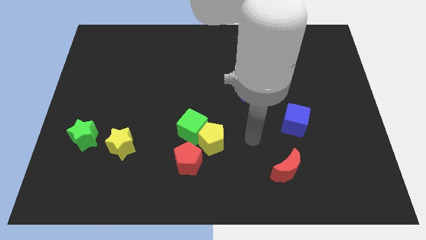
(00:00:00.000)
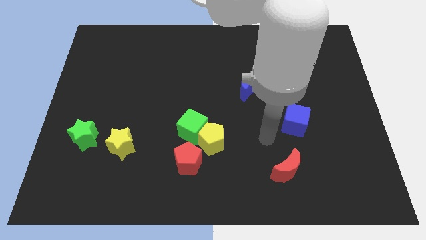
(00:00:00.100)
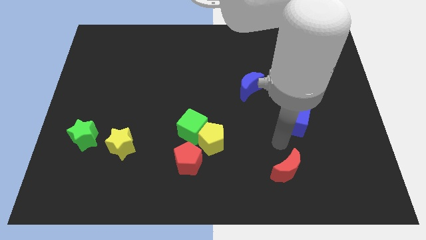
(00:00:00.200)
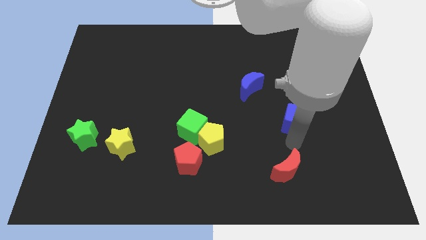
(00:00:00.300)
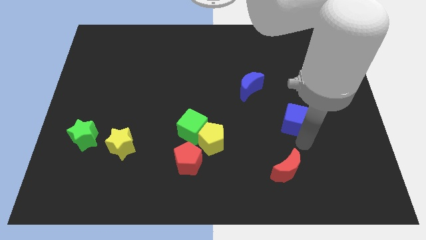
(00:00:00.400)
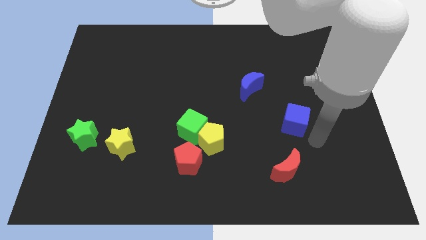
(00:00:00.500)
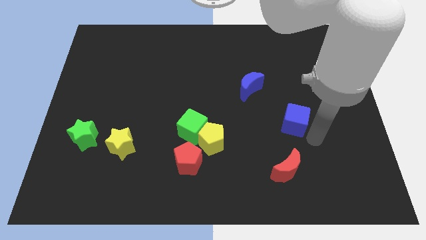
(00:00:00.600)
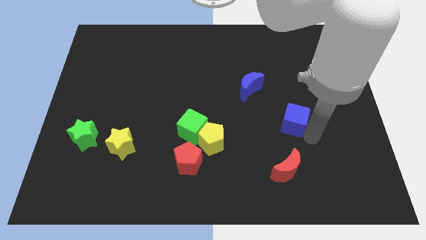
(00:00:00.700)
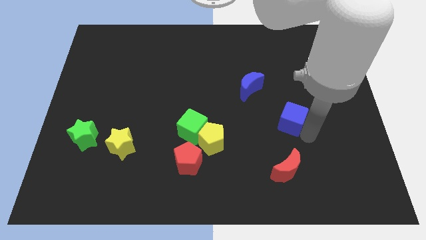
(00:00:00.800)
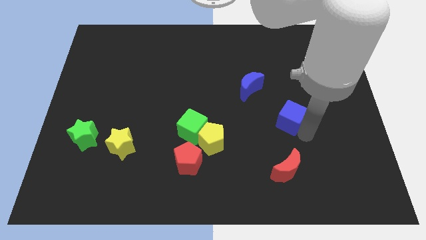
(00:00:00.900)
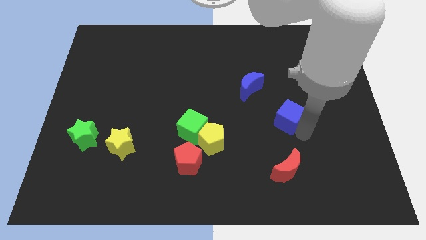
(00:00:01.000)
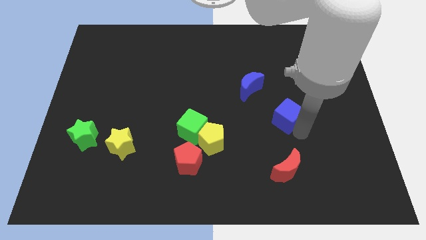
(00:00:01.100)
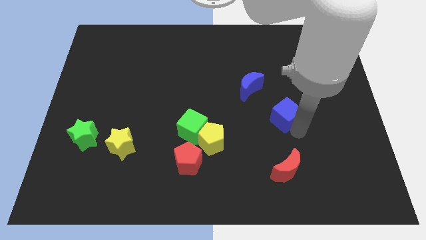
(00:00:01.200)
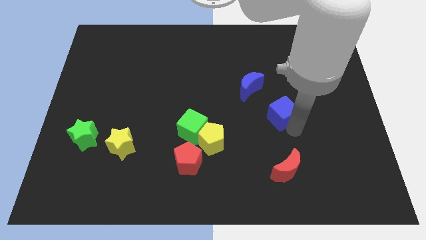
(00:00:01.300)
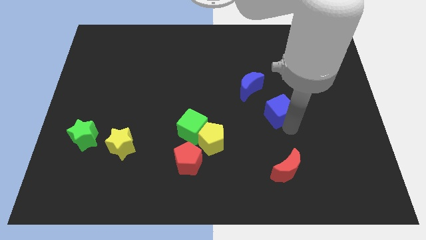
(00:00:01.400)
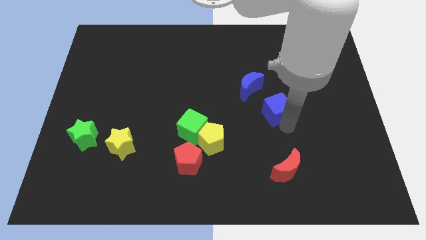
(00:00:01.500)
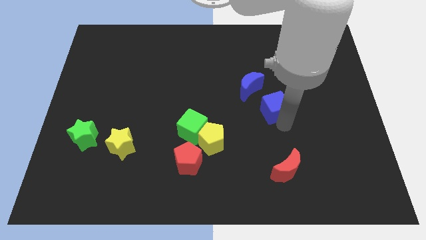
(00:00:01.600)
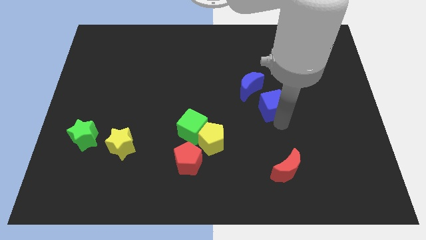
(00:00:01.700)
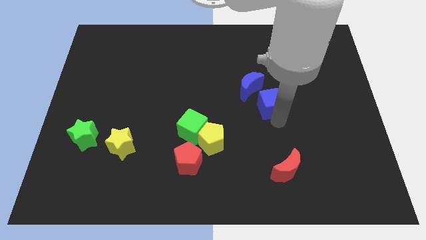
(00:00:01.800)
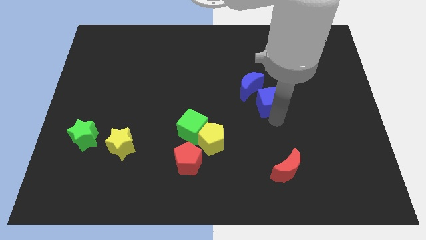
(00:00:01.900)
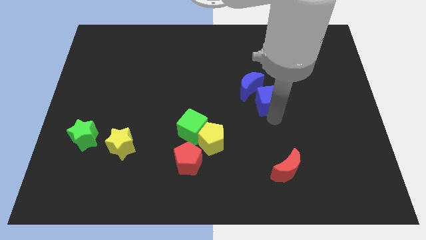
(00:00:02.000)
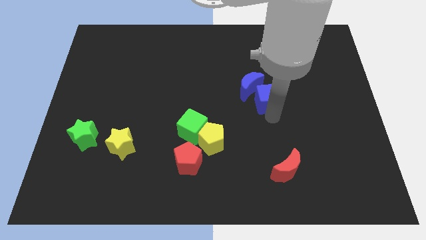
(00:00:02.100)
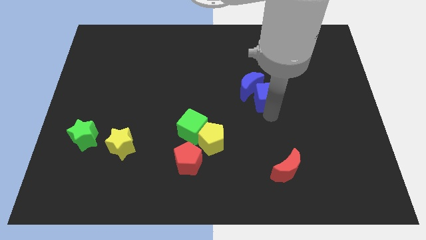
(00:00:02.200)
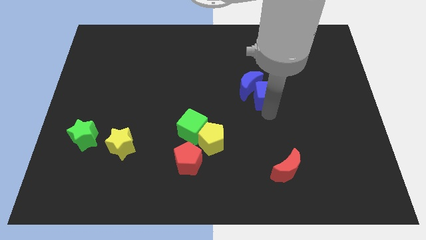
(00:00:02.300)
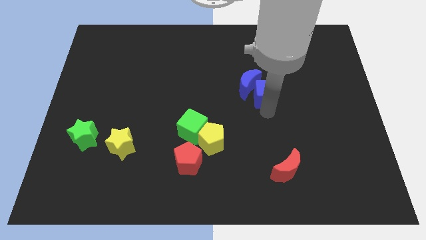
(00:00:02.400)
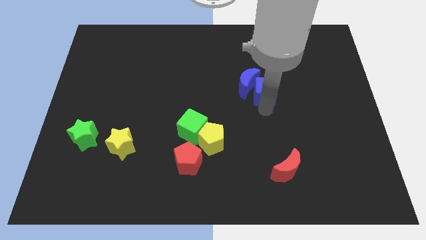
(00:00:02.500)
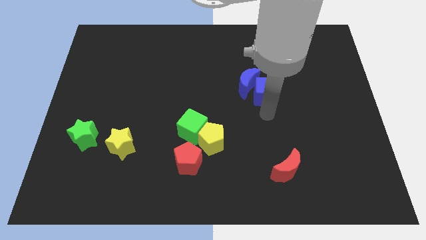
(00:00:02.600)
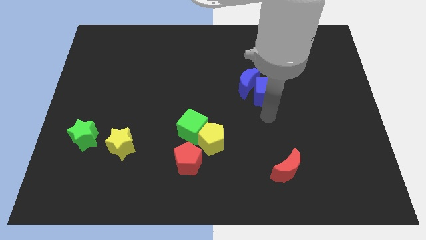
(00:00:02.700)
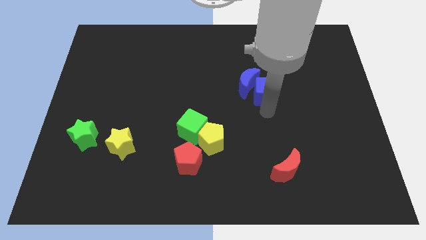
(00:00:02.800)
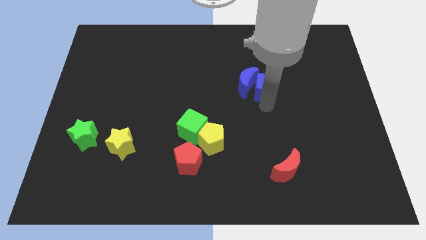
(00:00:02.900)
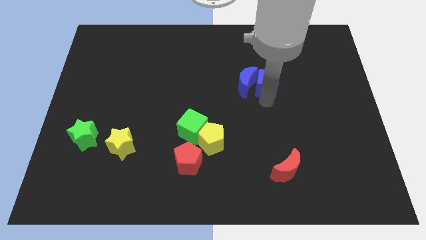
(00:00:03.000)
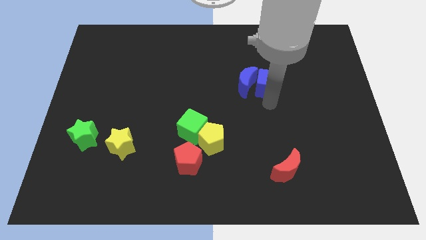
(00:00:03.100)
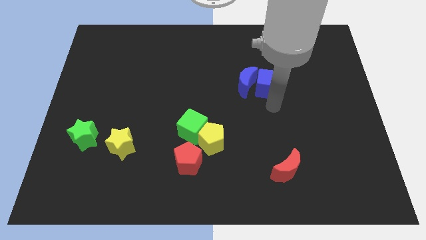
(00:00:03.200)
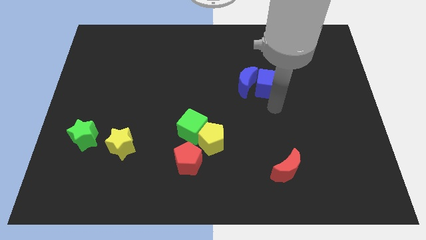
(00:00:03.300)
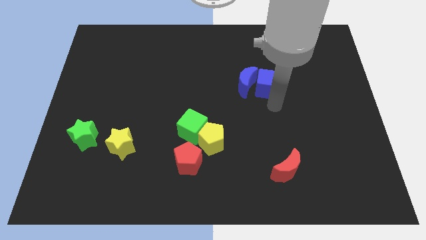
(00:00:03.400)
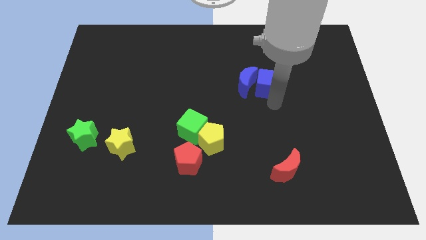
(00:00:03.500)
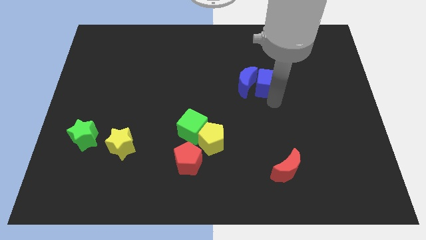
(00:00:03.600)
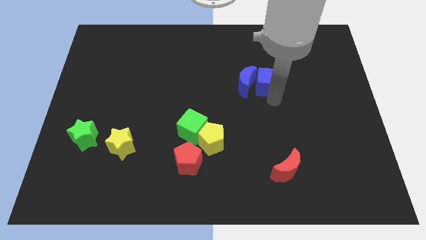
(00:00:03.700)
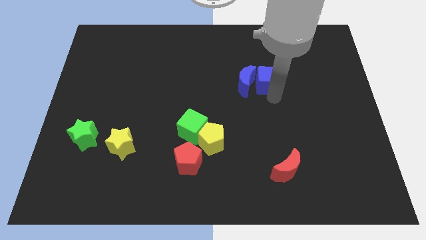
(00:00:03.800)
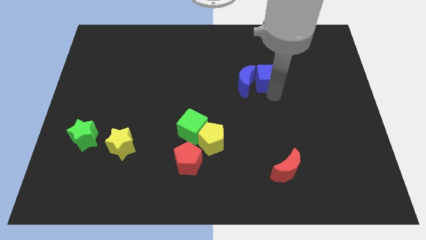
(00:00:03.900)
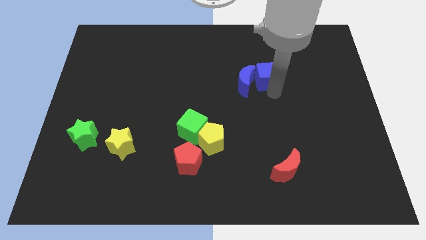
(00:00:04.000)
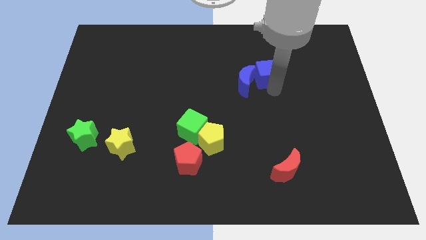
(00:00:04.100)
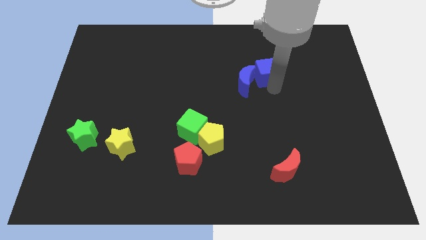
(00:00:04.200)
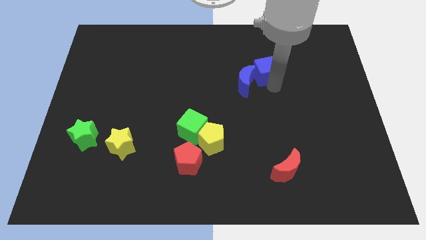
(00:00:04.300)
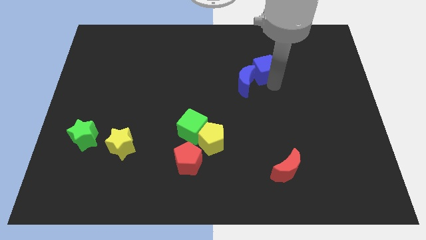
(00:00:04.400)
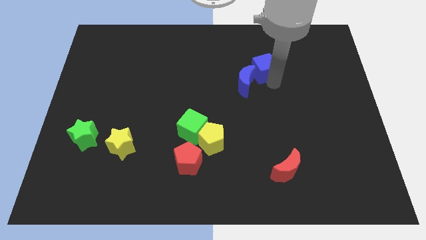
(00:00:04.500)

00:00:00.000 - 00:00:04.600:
move the blue cube to the top of the blue moon

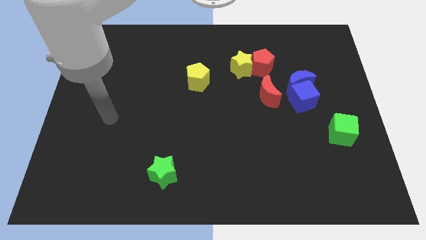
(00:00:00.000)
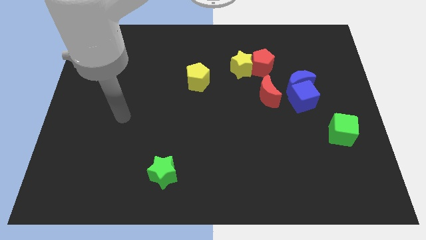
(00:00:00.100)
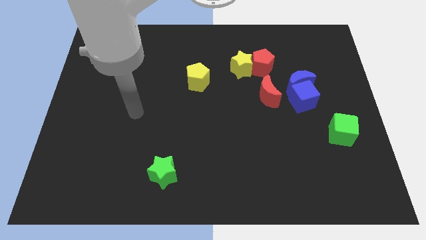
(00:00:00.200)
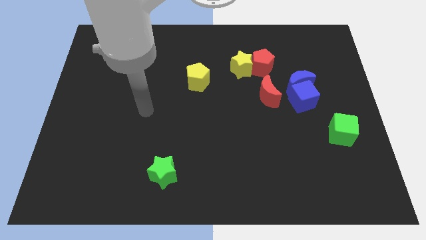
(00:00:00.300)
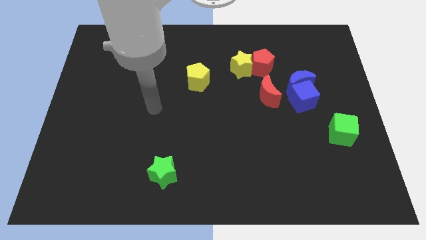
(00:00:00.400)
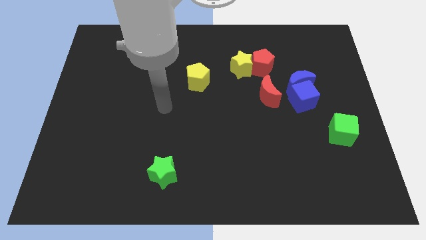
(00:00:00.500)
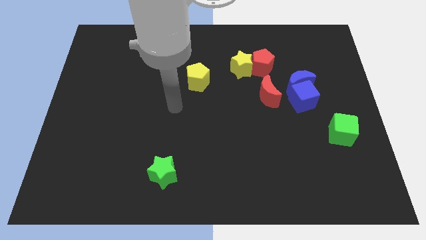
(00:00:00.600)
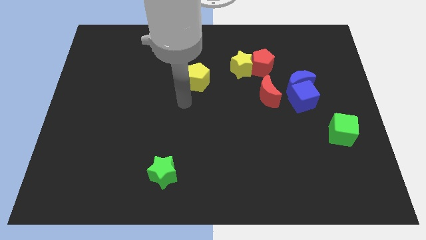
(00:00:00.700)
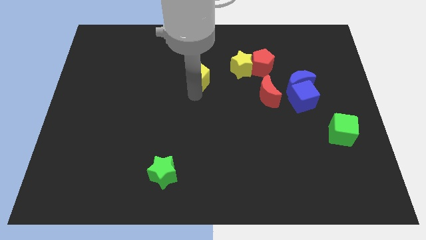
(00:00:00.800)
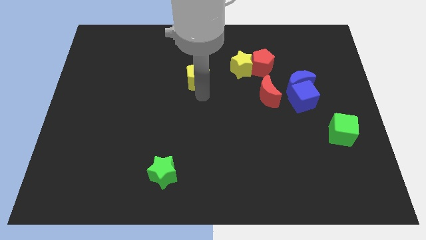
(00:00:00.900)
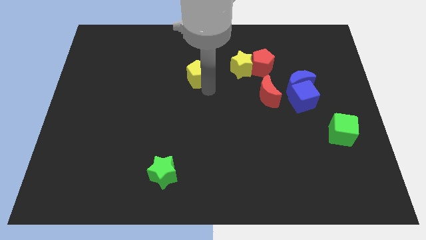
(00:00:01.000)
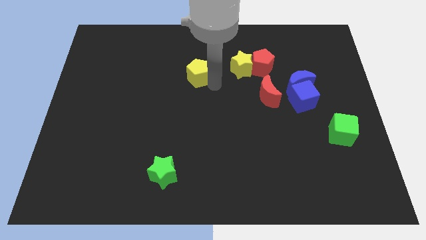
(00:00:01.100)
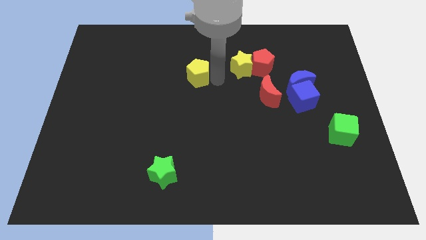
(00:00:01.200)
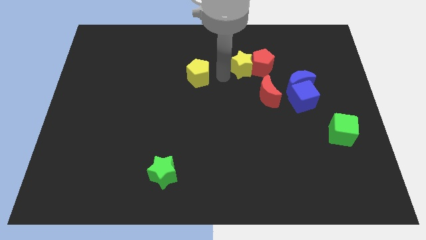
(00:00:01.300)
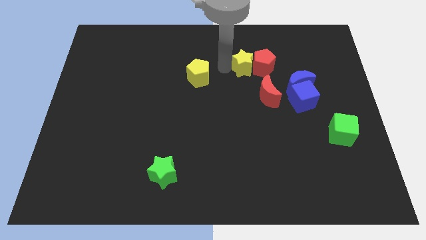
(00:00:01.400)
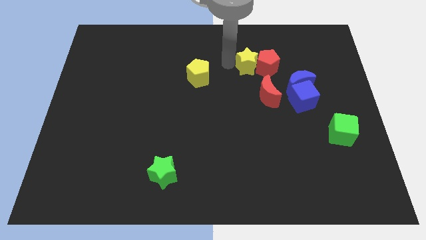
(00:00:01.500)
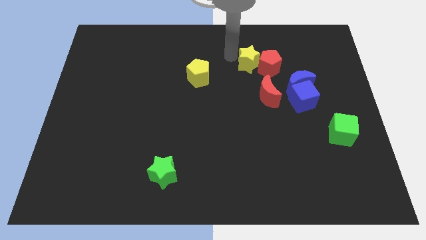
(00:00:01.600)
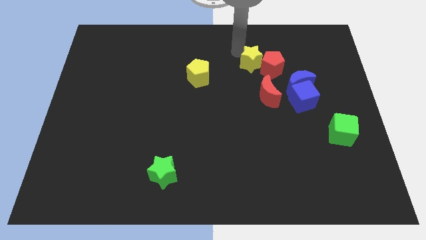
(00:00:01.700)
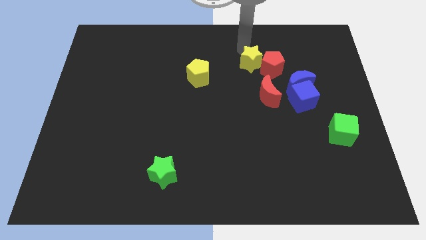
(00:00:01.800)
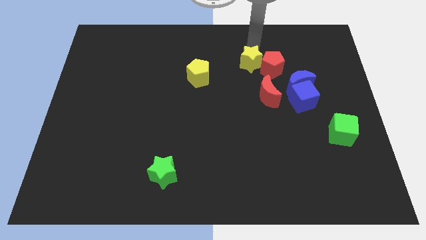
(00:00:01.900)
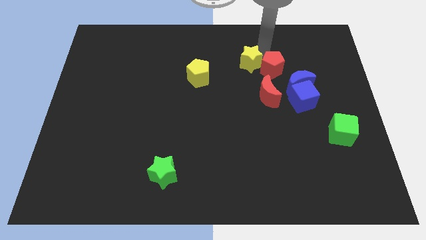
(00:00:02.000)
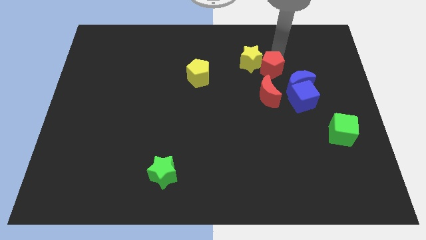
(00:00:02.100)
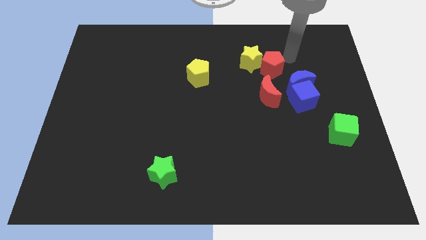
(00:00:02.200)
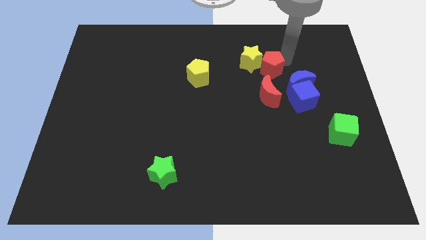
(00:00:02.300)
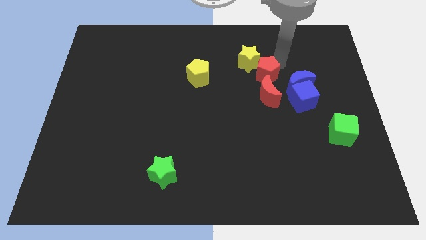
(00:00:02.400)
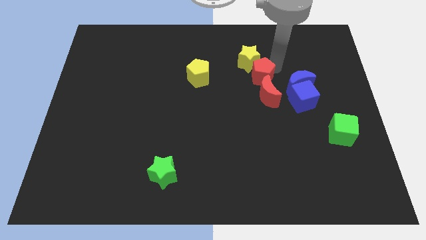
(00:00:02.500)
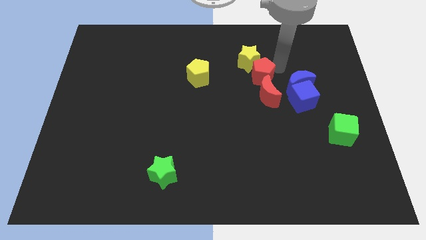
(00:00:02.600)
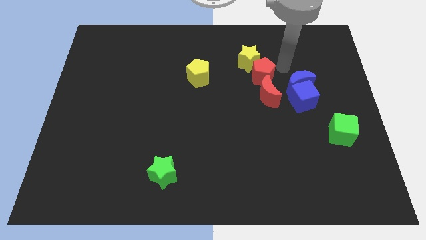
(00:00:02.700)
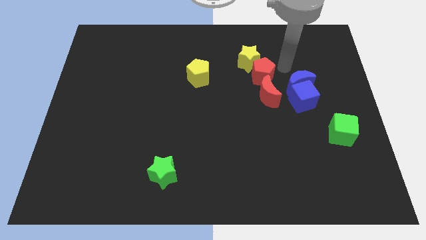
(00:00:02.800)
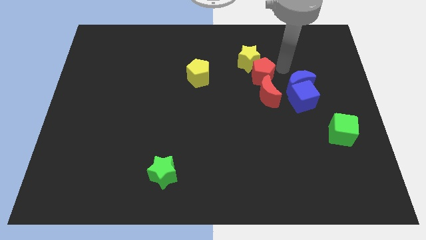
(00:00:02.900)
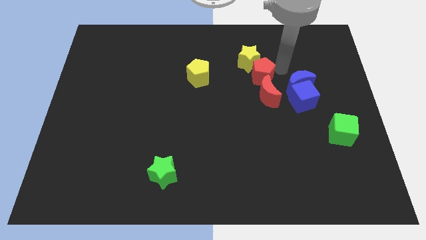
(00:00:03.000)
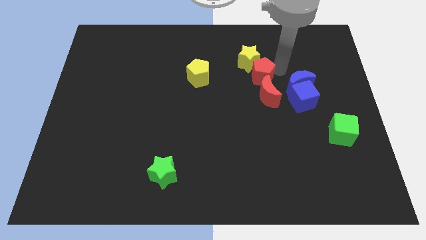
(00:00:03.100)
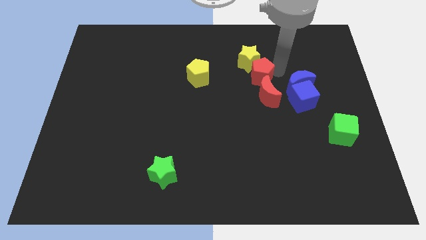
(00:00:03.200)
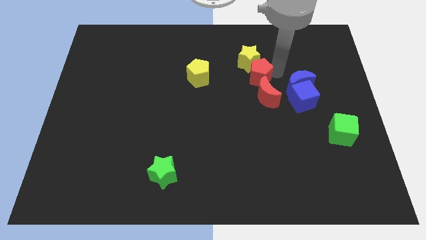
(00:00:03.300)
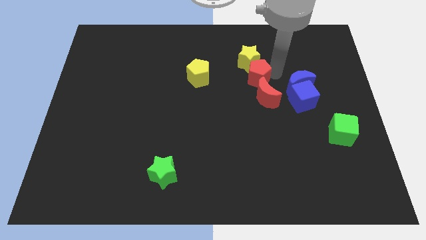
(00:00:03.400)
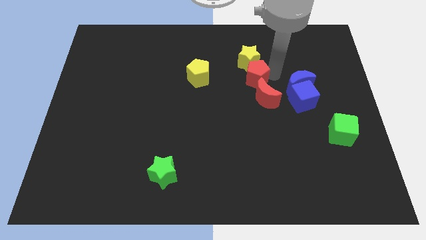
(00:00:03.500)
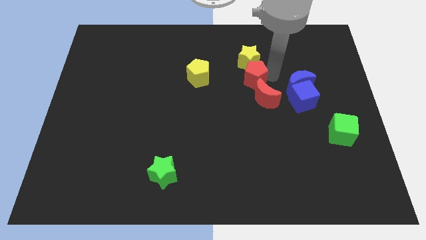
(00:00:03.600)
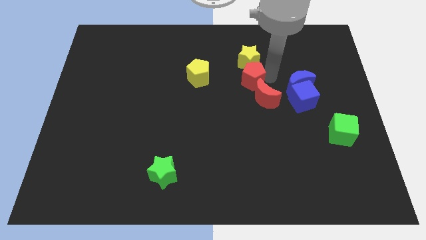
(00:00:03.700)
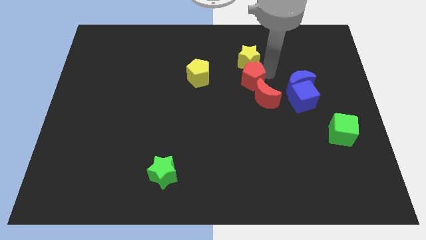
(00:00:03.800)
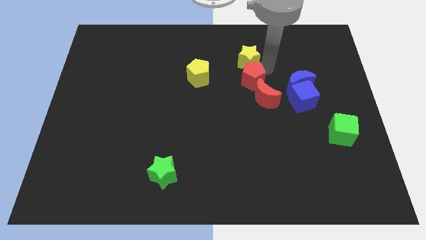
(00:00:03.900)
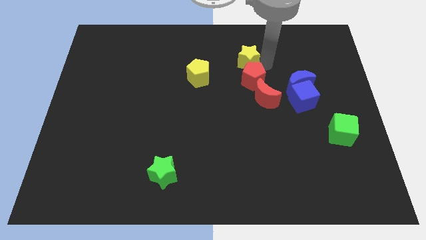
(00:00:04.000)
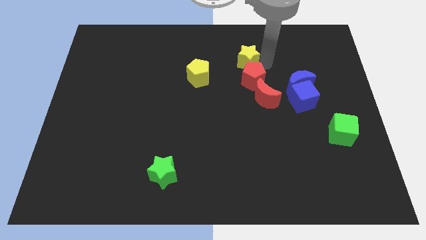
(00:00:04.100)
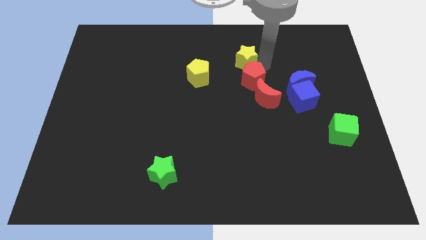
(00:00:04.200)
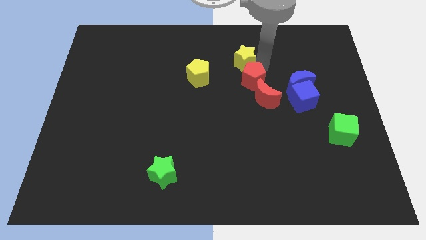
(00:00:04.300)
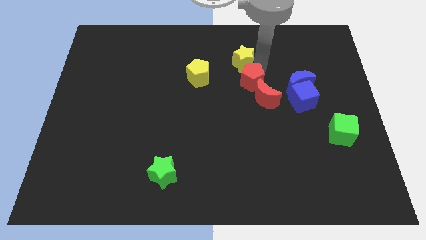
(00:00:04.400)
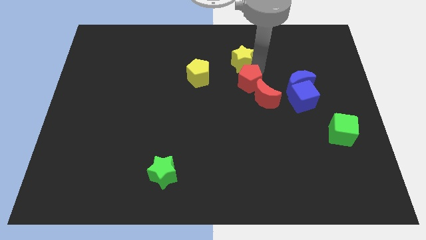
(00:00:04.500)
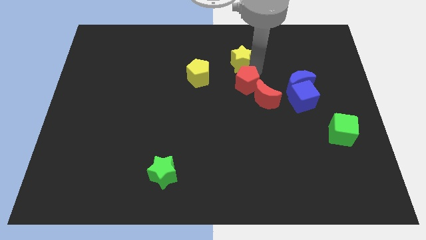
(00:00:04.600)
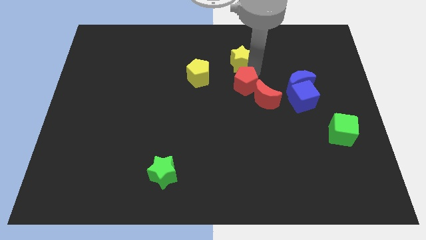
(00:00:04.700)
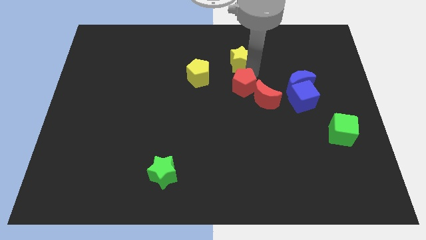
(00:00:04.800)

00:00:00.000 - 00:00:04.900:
push the red pentagon to the left of the blue cube
